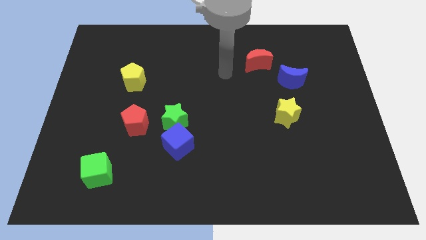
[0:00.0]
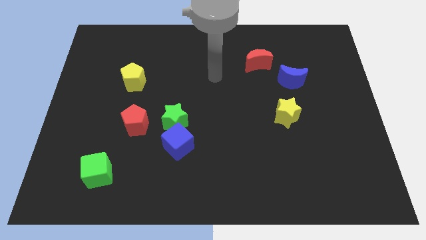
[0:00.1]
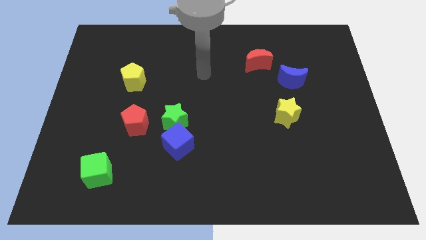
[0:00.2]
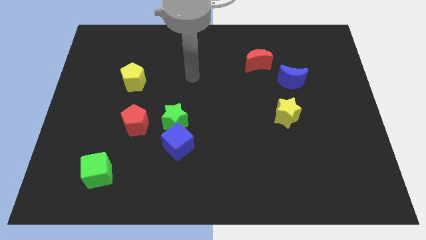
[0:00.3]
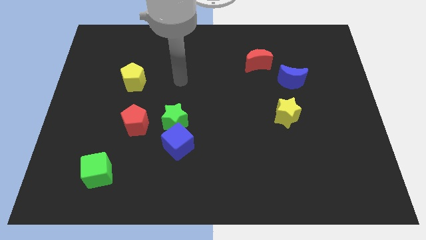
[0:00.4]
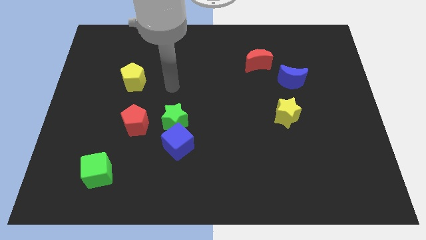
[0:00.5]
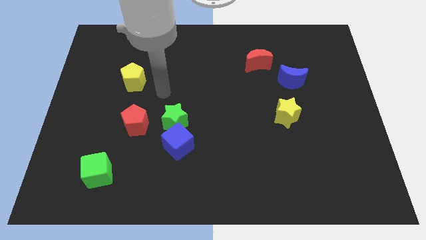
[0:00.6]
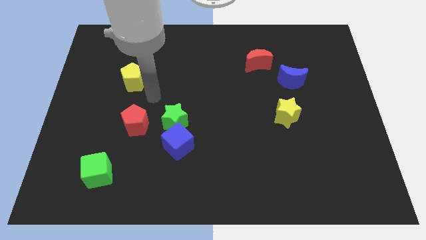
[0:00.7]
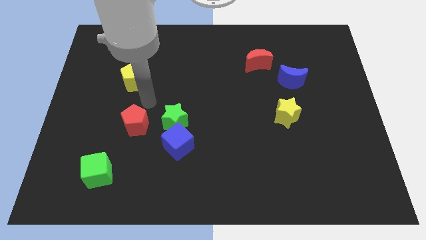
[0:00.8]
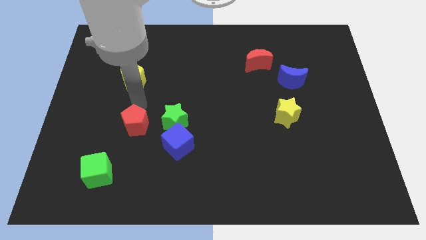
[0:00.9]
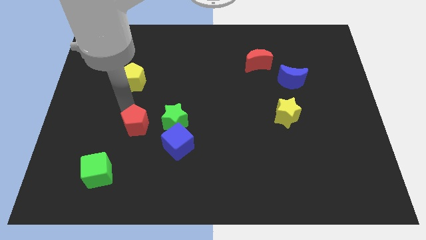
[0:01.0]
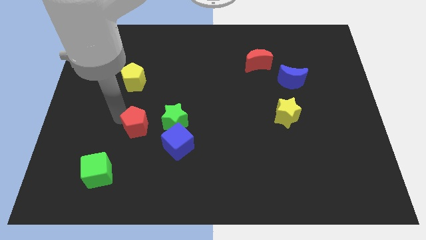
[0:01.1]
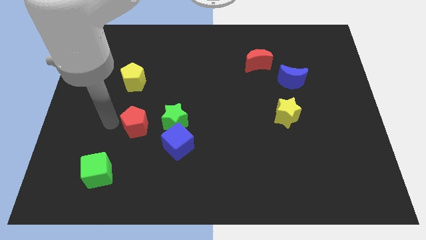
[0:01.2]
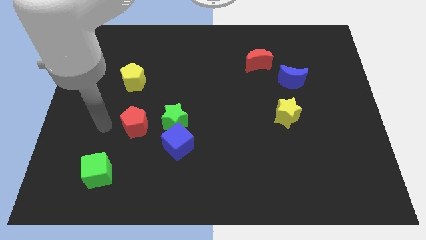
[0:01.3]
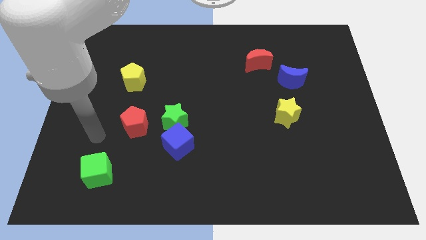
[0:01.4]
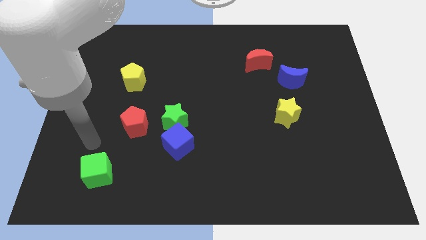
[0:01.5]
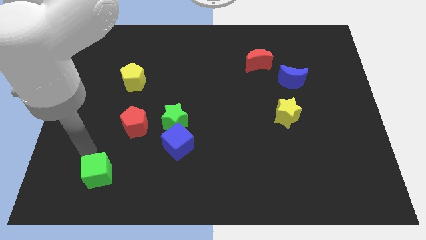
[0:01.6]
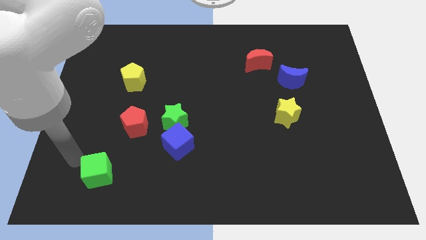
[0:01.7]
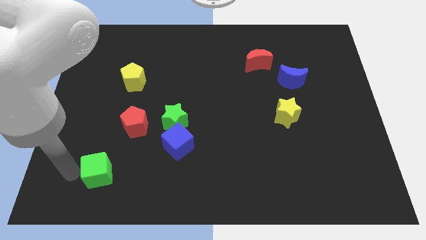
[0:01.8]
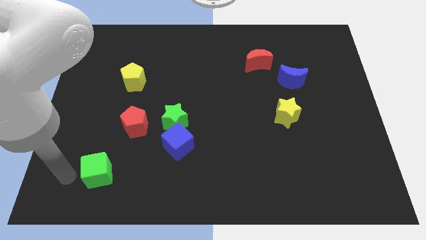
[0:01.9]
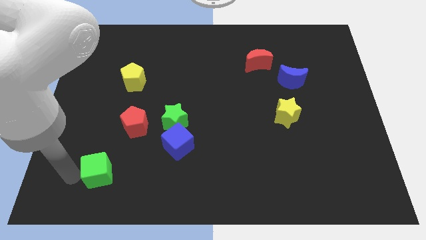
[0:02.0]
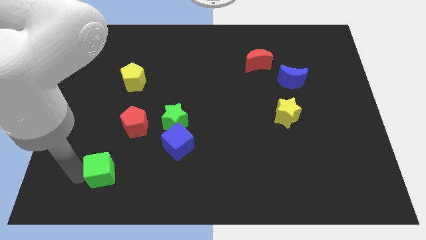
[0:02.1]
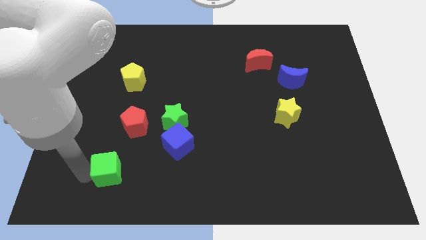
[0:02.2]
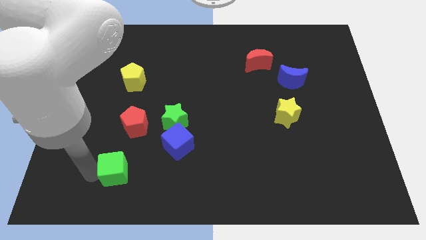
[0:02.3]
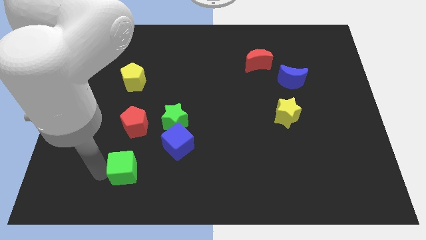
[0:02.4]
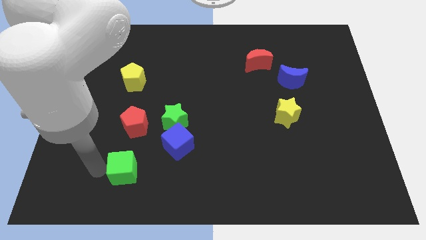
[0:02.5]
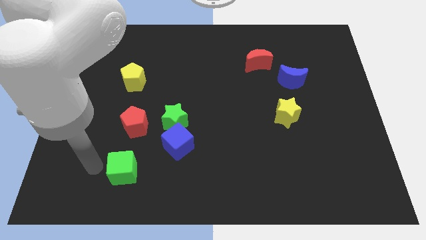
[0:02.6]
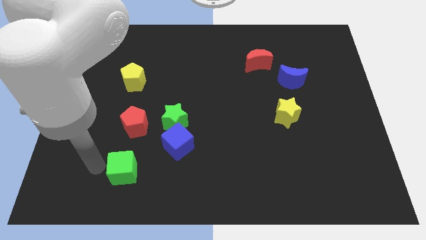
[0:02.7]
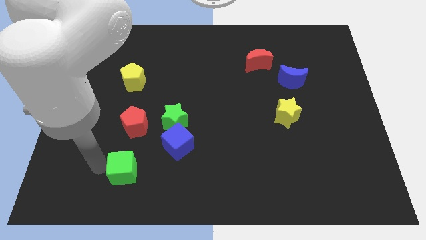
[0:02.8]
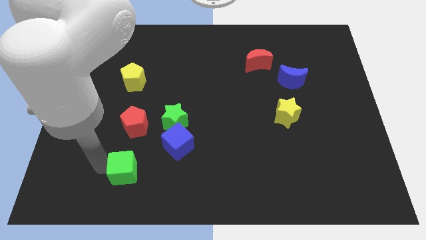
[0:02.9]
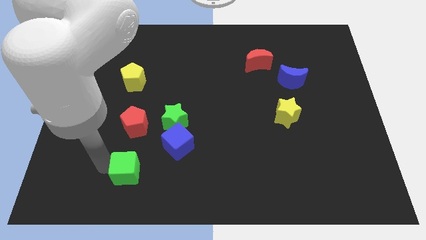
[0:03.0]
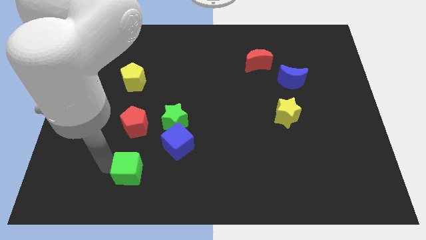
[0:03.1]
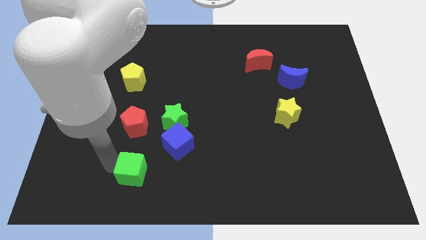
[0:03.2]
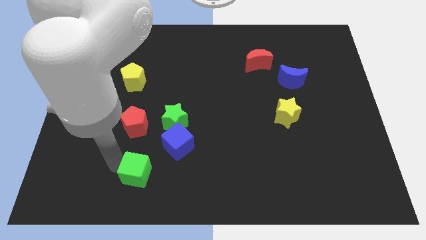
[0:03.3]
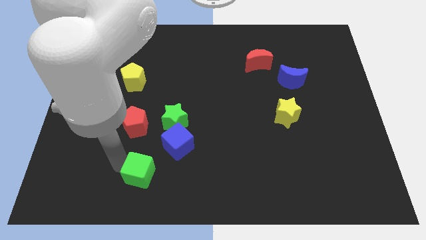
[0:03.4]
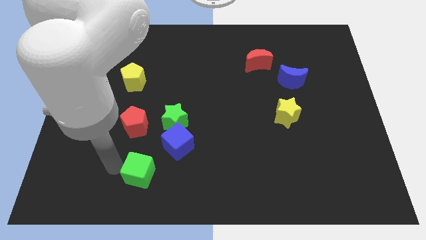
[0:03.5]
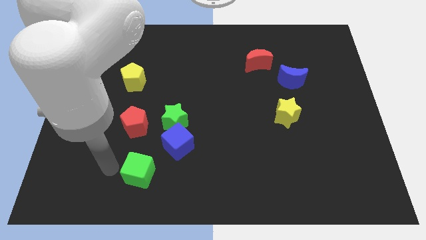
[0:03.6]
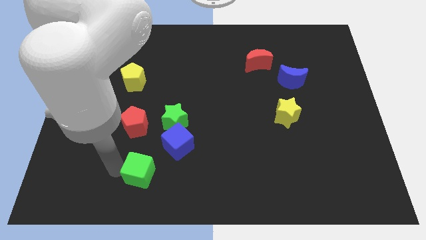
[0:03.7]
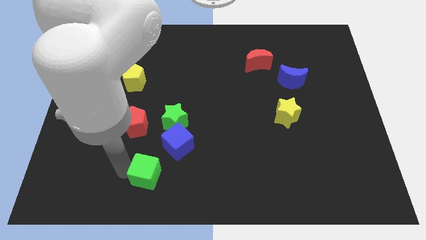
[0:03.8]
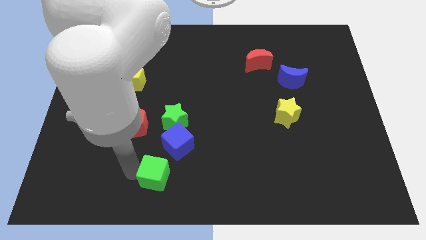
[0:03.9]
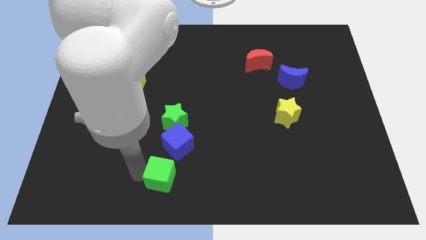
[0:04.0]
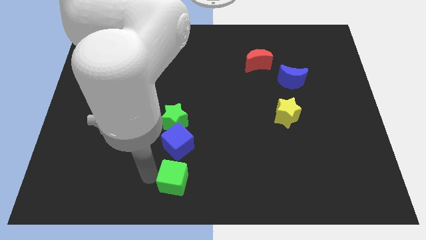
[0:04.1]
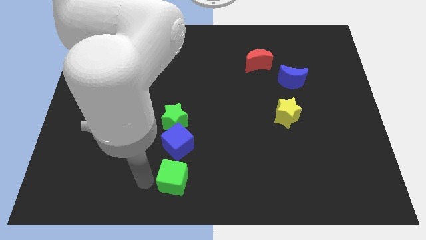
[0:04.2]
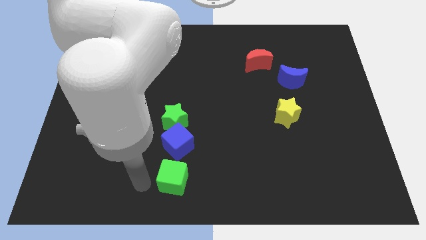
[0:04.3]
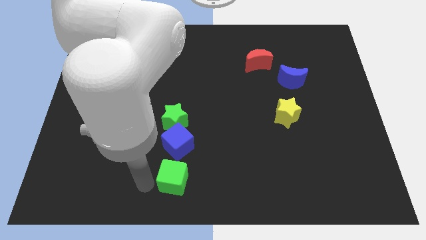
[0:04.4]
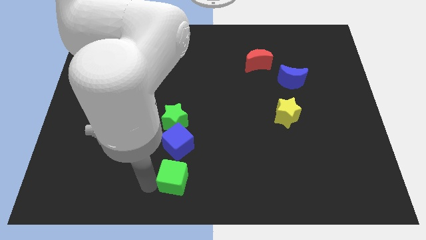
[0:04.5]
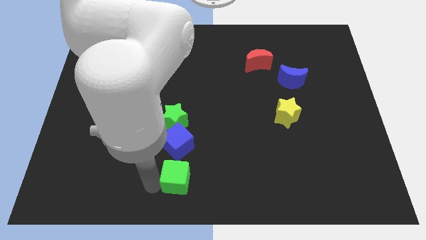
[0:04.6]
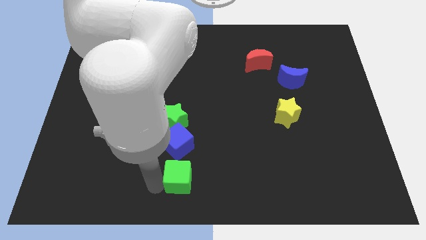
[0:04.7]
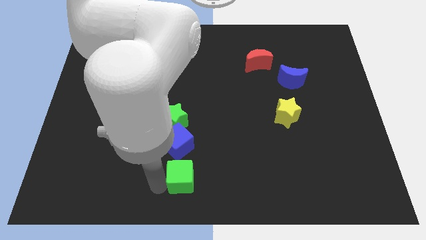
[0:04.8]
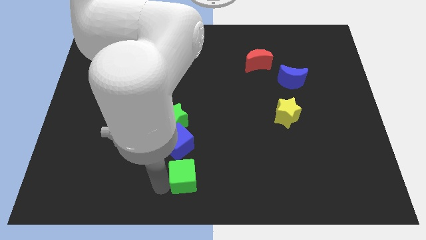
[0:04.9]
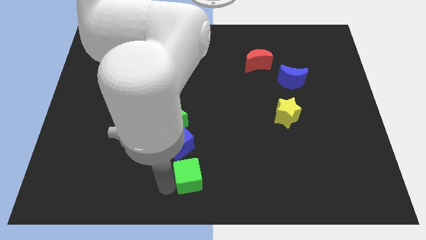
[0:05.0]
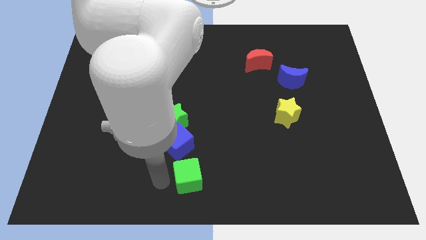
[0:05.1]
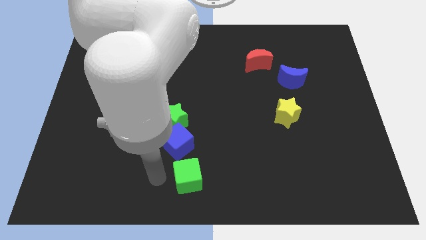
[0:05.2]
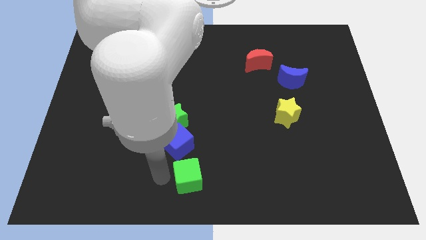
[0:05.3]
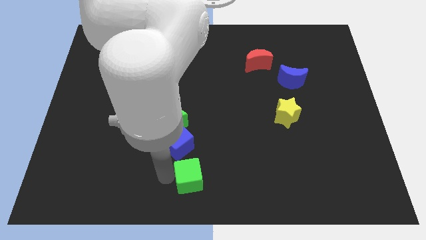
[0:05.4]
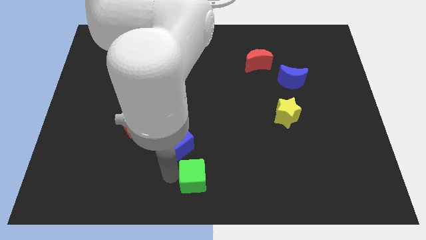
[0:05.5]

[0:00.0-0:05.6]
slide the green cube right

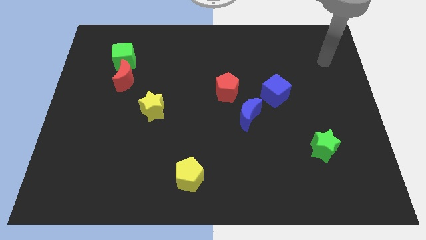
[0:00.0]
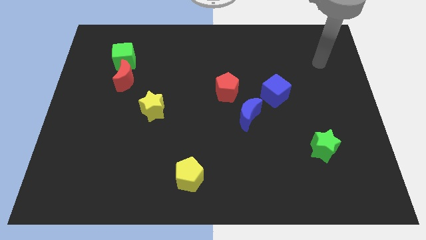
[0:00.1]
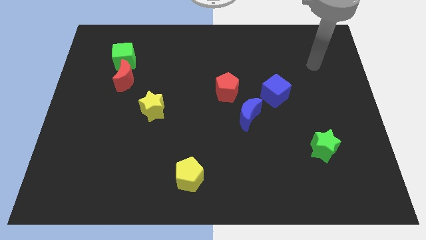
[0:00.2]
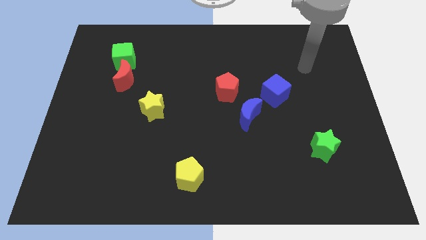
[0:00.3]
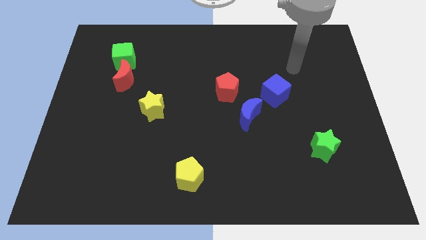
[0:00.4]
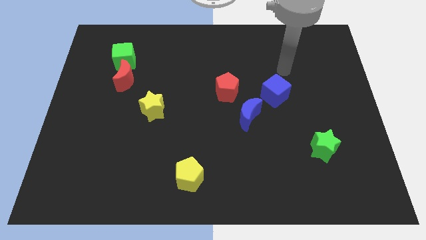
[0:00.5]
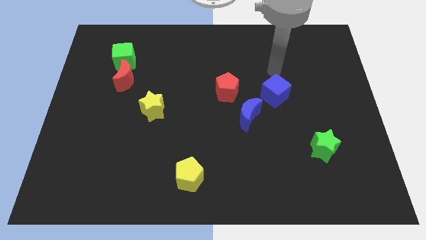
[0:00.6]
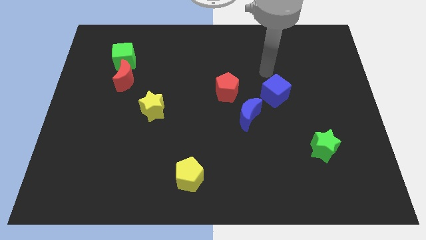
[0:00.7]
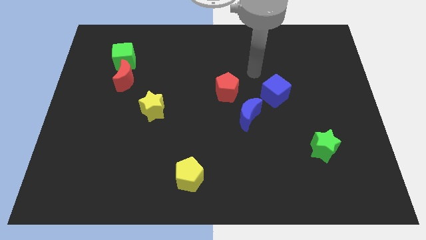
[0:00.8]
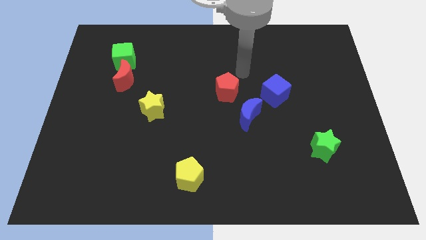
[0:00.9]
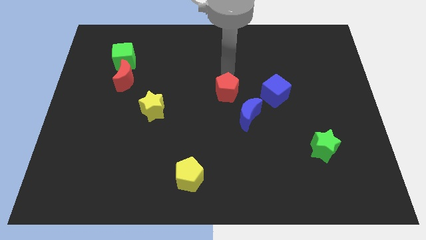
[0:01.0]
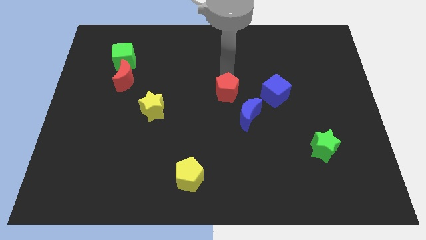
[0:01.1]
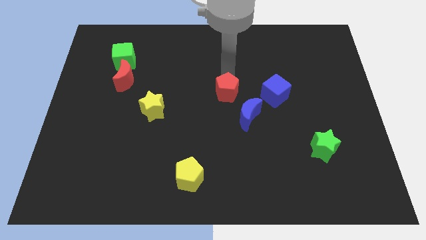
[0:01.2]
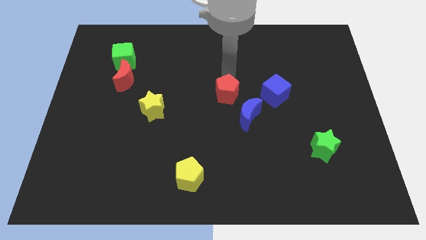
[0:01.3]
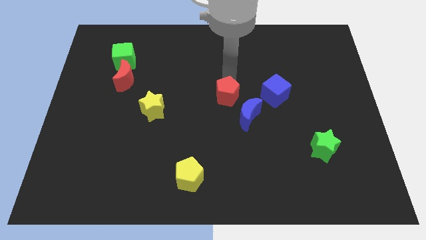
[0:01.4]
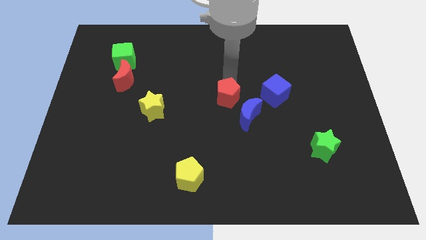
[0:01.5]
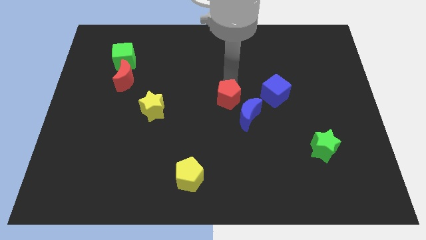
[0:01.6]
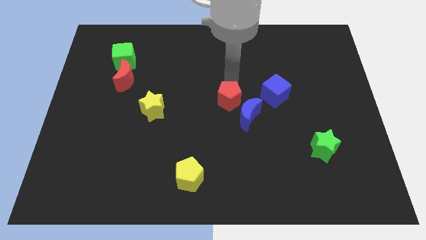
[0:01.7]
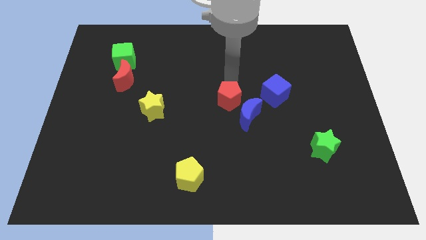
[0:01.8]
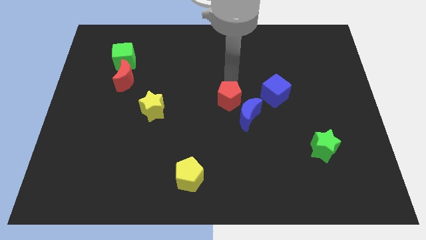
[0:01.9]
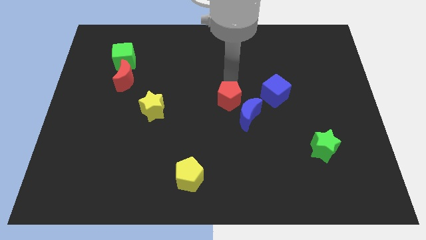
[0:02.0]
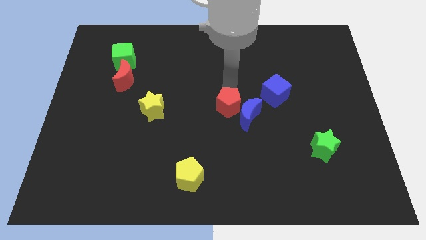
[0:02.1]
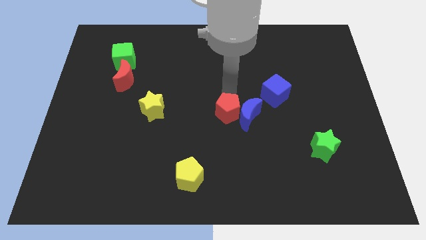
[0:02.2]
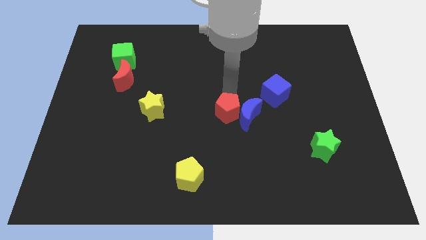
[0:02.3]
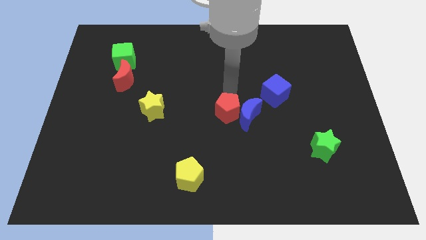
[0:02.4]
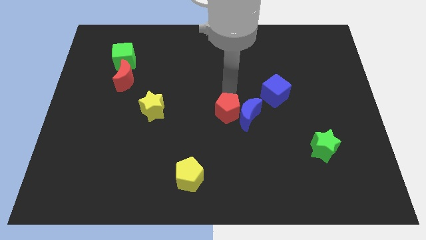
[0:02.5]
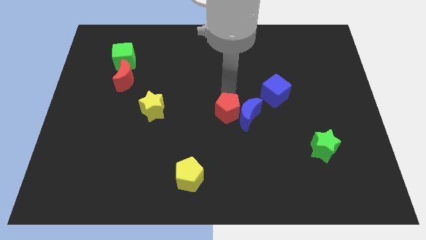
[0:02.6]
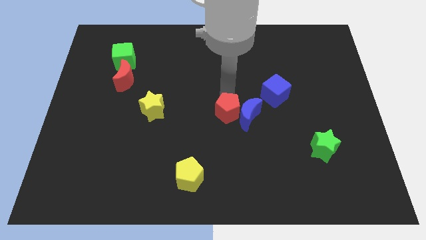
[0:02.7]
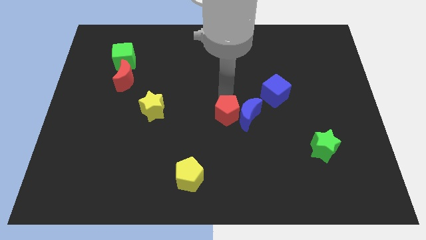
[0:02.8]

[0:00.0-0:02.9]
move the red pentagon down a bit
